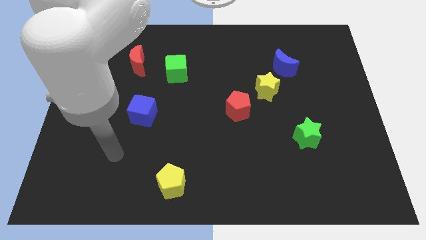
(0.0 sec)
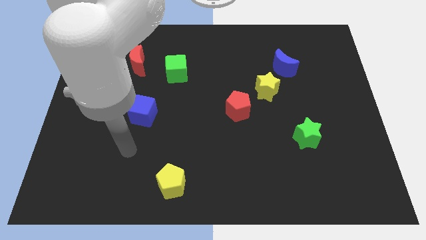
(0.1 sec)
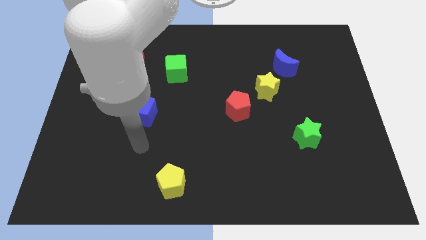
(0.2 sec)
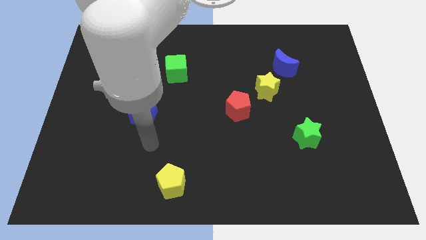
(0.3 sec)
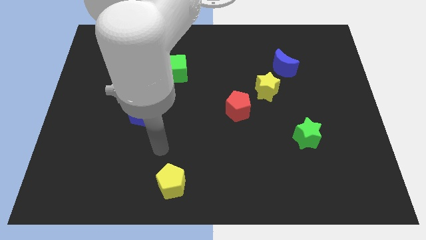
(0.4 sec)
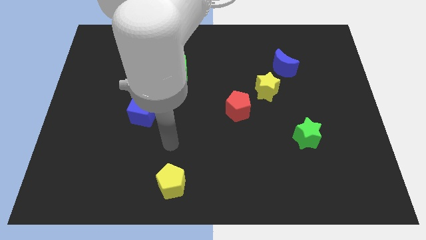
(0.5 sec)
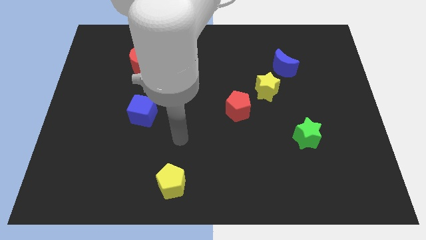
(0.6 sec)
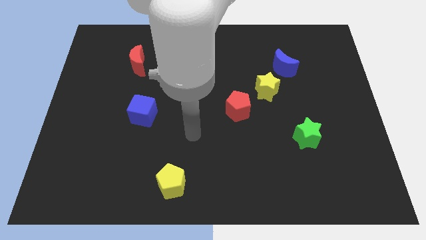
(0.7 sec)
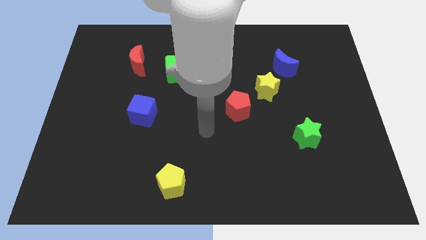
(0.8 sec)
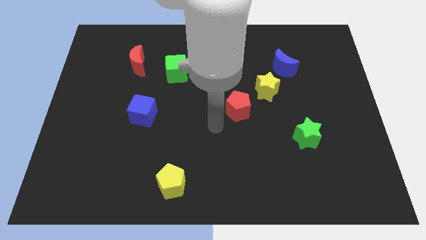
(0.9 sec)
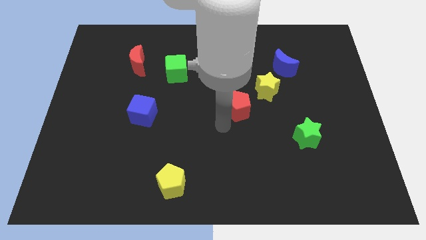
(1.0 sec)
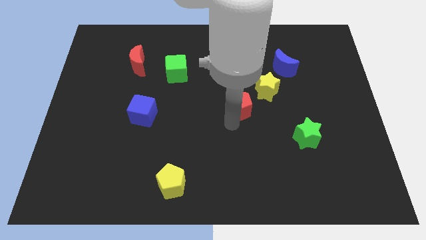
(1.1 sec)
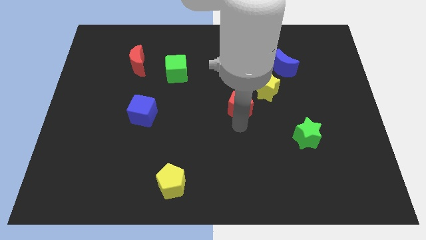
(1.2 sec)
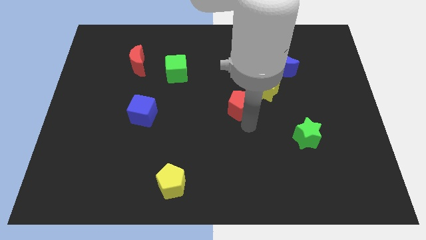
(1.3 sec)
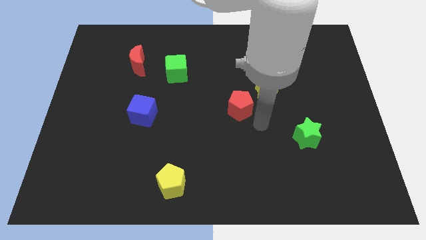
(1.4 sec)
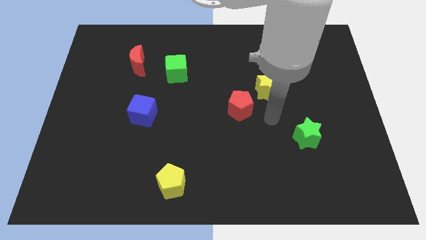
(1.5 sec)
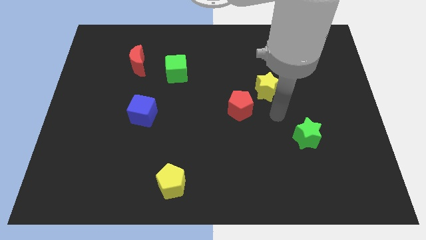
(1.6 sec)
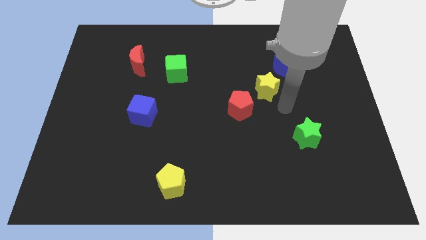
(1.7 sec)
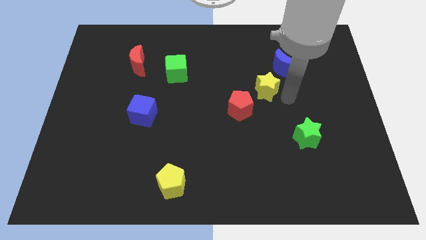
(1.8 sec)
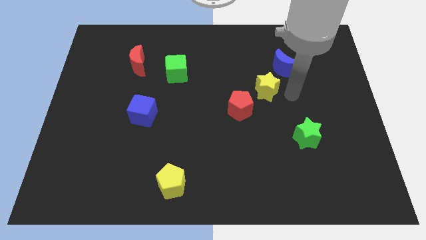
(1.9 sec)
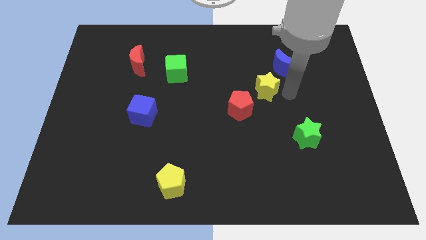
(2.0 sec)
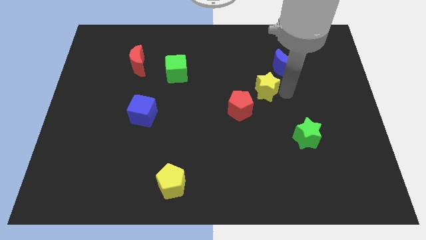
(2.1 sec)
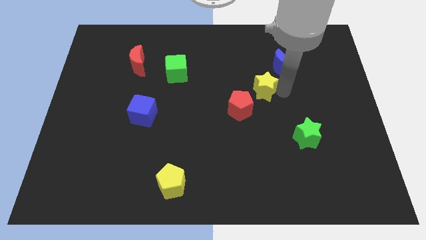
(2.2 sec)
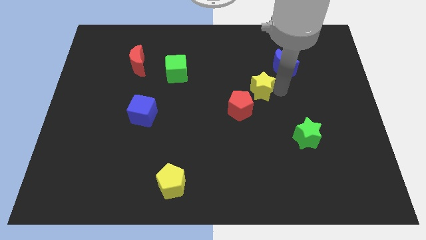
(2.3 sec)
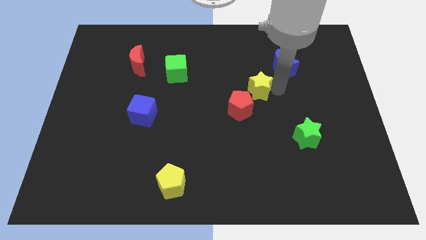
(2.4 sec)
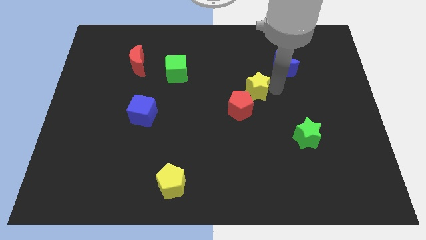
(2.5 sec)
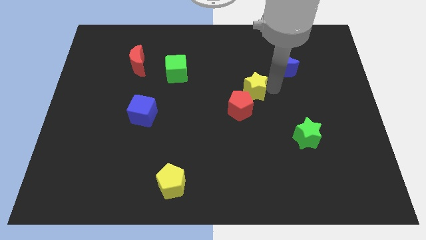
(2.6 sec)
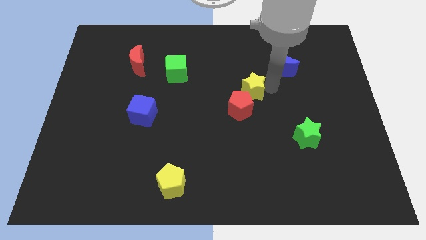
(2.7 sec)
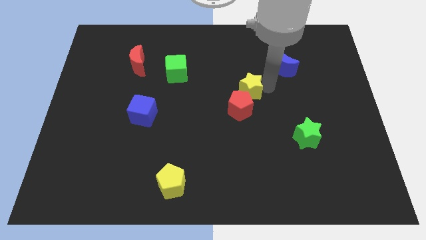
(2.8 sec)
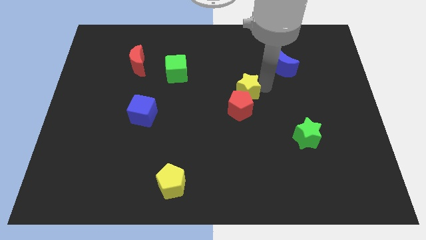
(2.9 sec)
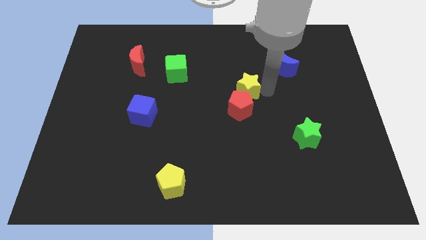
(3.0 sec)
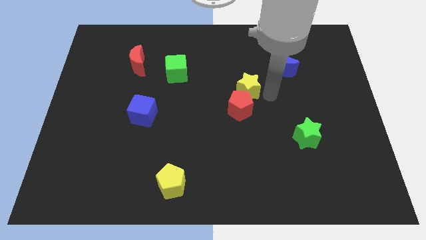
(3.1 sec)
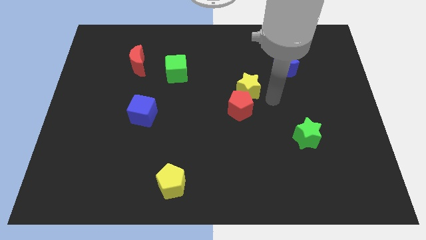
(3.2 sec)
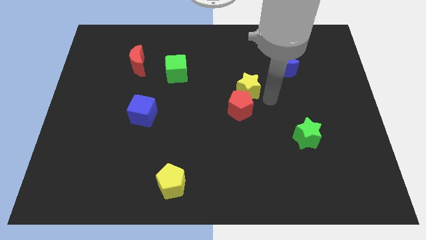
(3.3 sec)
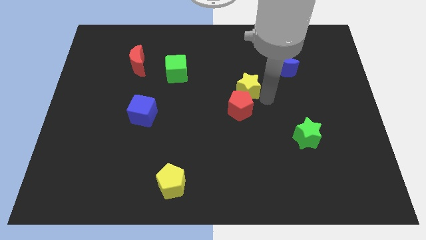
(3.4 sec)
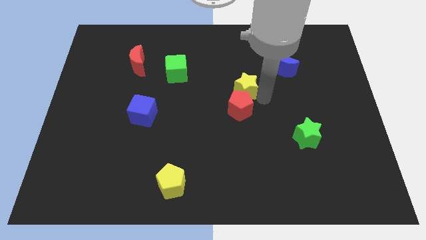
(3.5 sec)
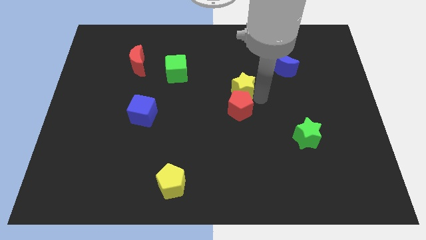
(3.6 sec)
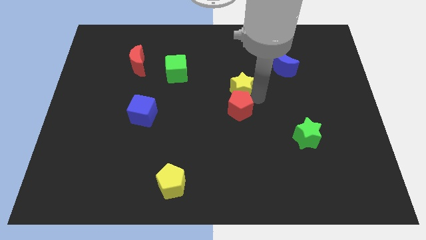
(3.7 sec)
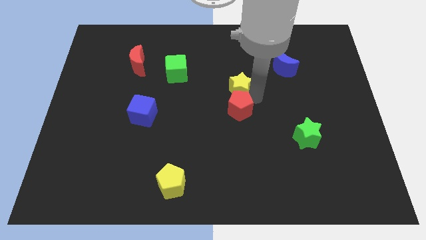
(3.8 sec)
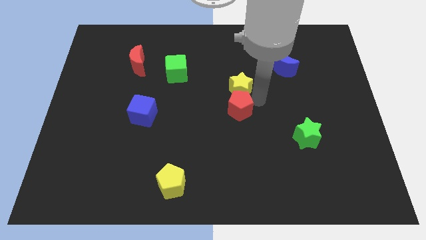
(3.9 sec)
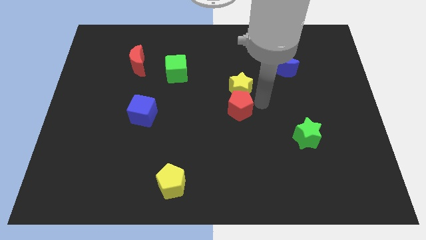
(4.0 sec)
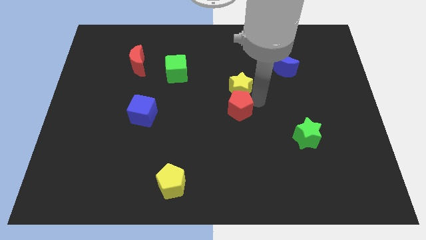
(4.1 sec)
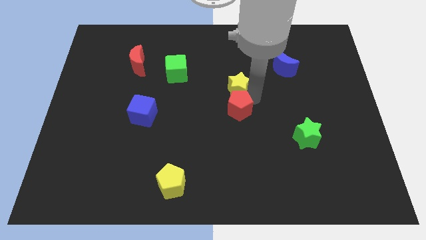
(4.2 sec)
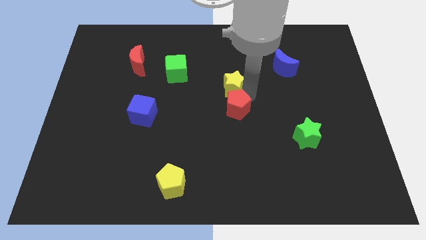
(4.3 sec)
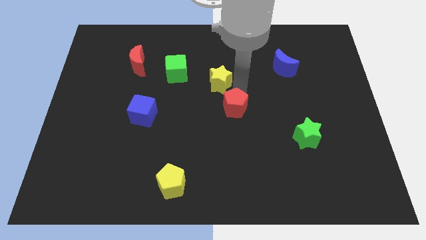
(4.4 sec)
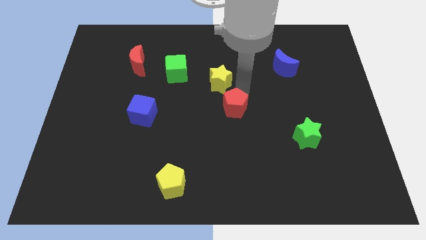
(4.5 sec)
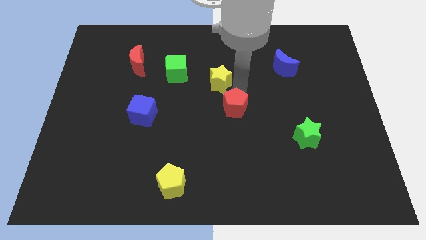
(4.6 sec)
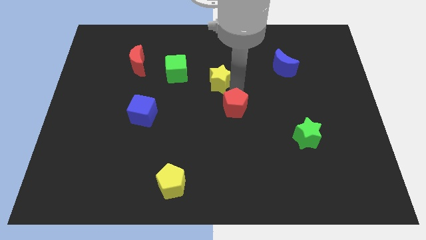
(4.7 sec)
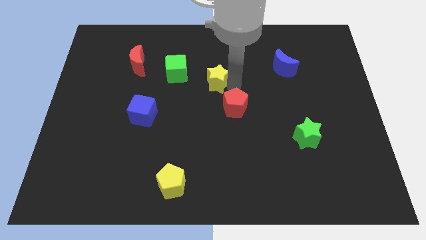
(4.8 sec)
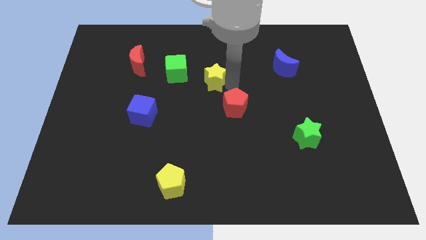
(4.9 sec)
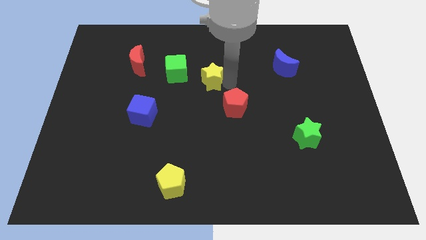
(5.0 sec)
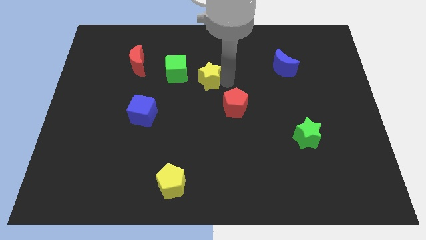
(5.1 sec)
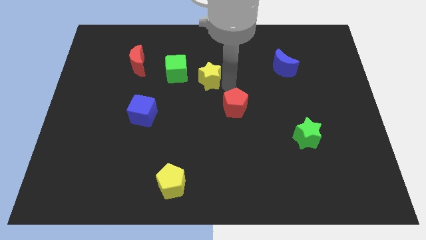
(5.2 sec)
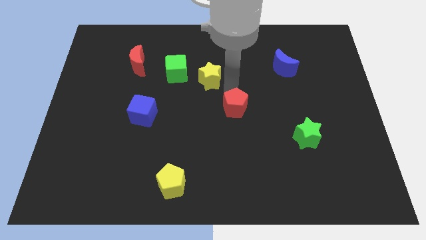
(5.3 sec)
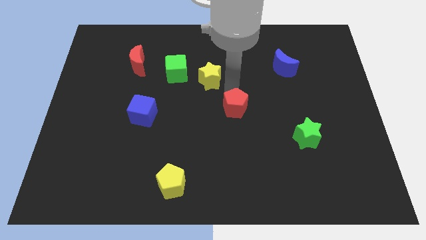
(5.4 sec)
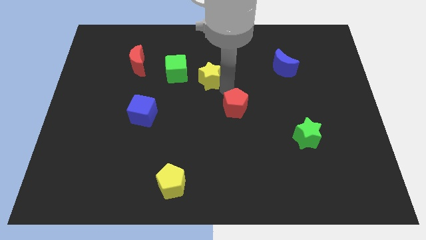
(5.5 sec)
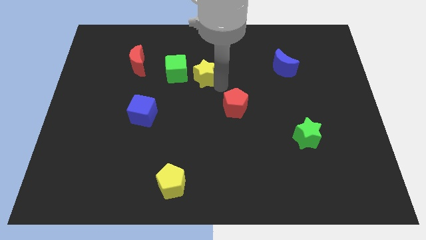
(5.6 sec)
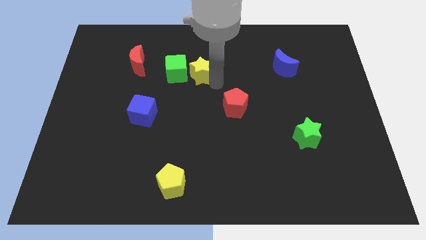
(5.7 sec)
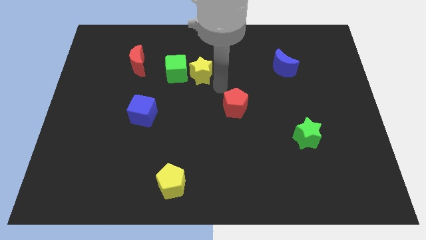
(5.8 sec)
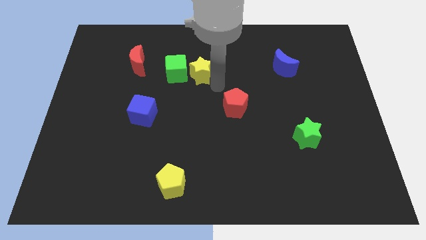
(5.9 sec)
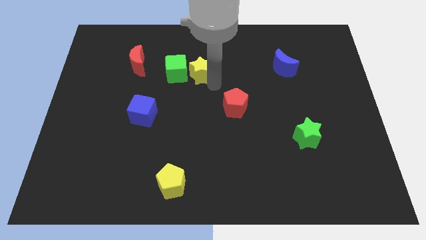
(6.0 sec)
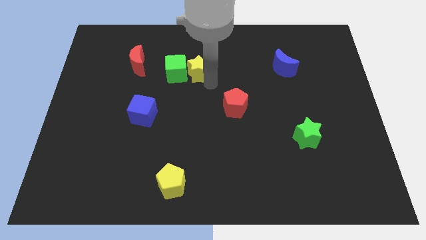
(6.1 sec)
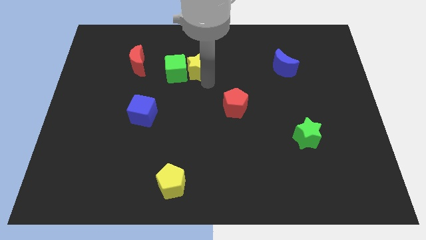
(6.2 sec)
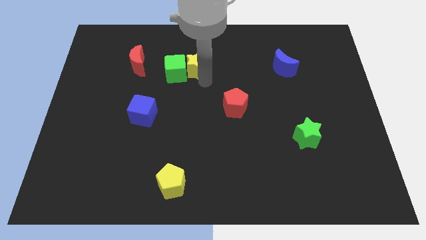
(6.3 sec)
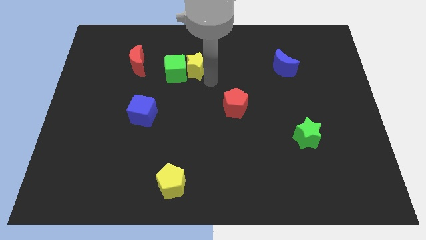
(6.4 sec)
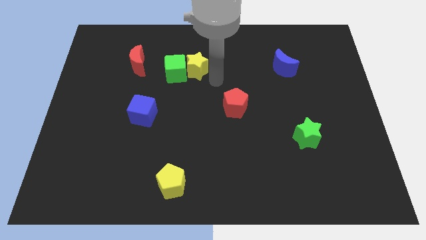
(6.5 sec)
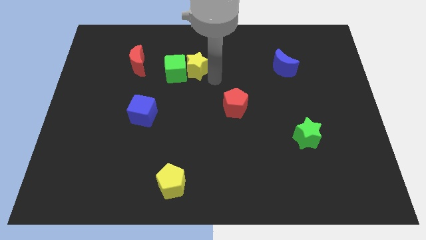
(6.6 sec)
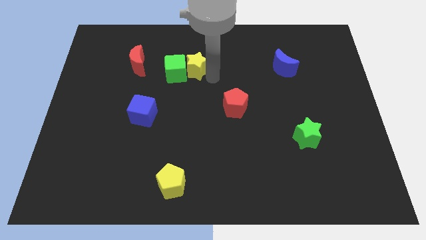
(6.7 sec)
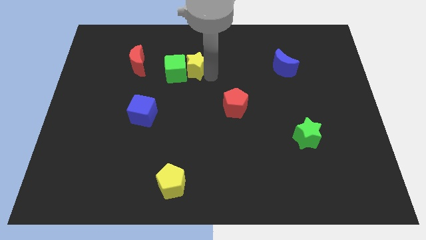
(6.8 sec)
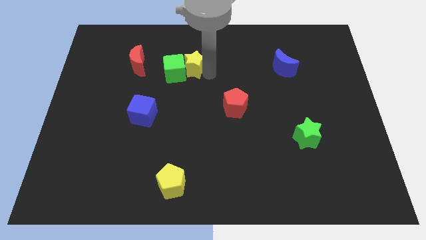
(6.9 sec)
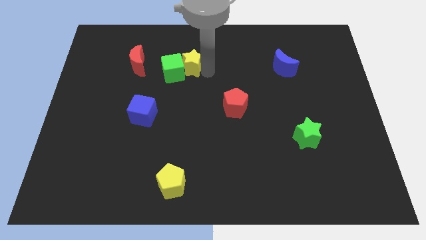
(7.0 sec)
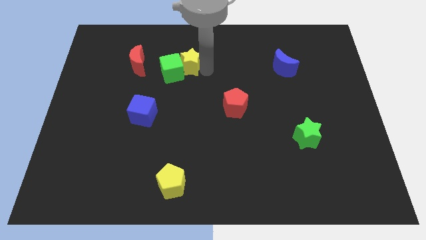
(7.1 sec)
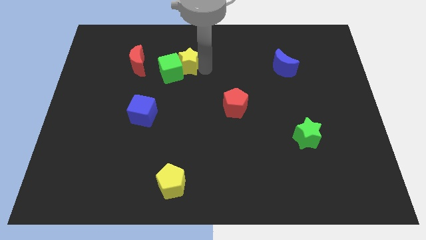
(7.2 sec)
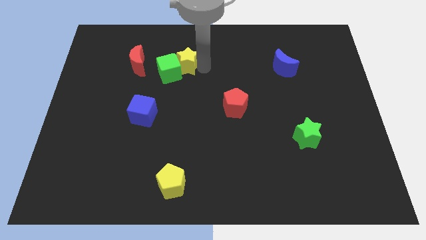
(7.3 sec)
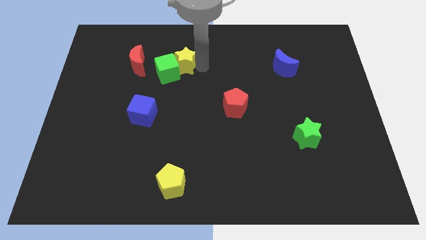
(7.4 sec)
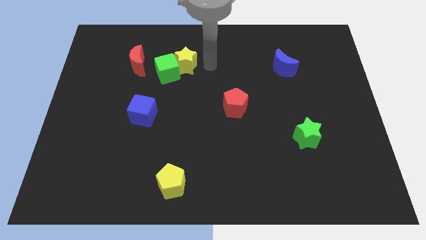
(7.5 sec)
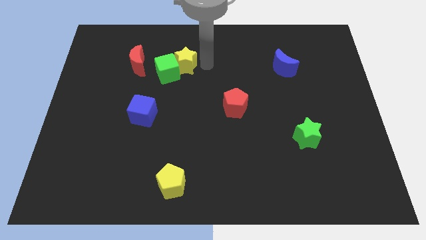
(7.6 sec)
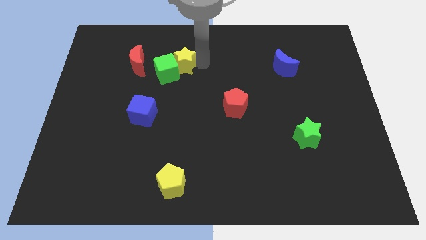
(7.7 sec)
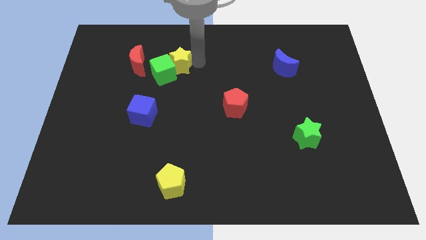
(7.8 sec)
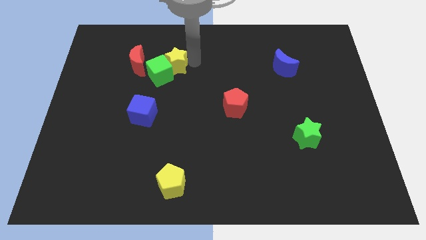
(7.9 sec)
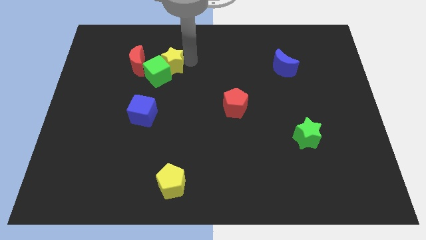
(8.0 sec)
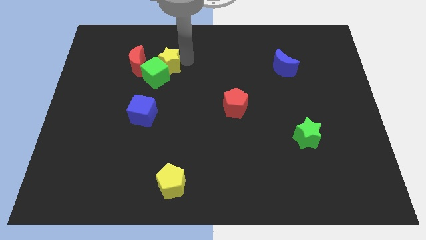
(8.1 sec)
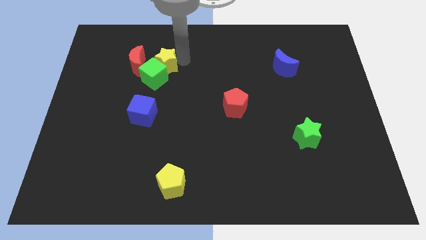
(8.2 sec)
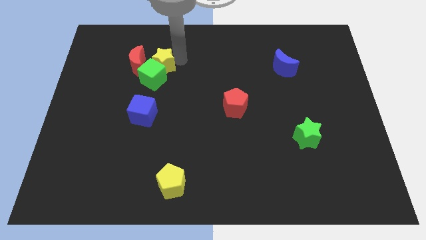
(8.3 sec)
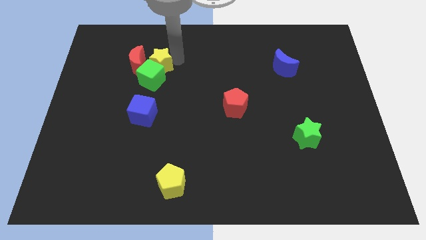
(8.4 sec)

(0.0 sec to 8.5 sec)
slide the yellow star to the red moon
